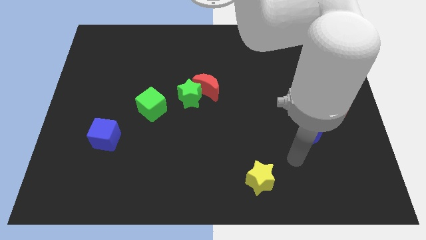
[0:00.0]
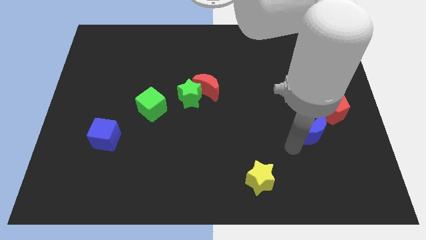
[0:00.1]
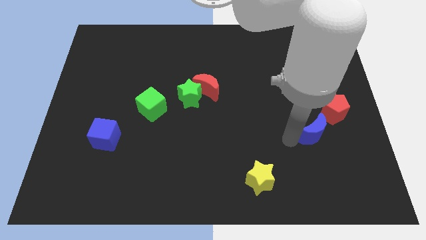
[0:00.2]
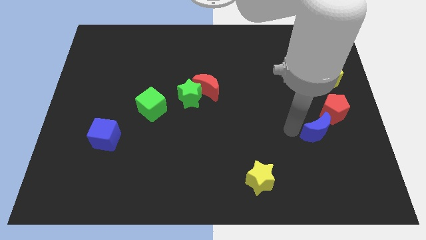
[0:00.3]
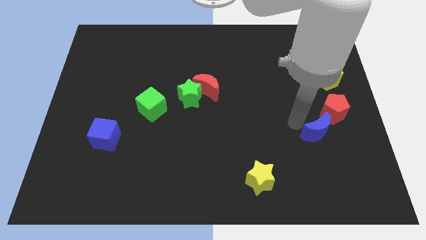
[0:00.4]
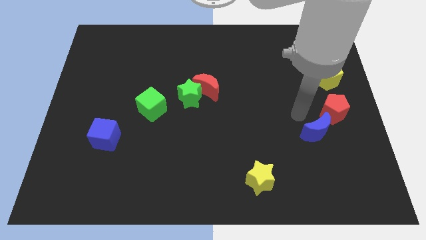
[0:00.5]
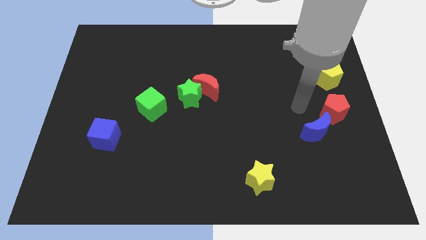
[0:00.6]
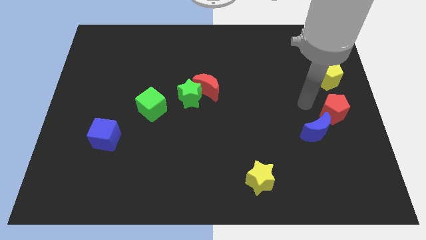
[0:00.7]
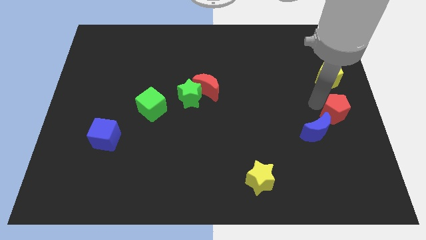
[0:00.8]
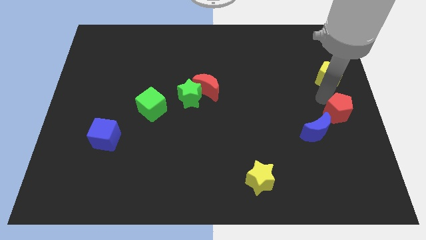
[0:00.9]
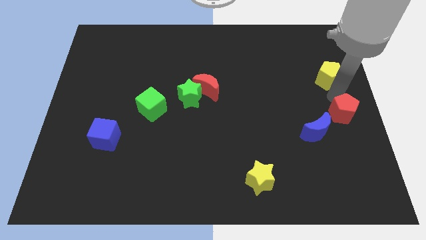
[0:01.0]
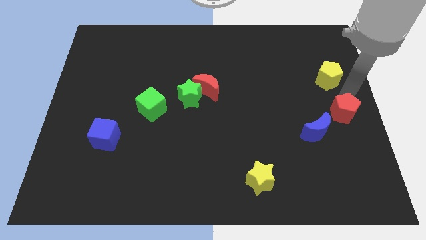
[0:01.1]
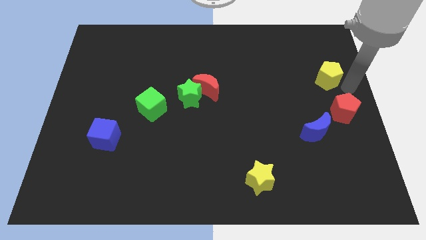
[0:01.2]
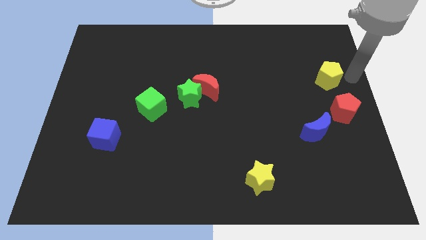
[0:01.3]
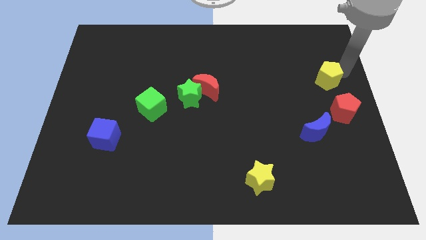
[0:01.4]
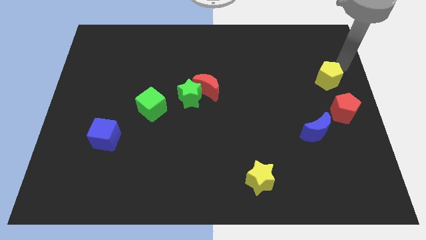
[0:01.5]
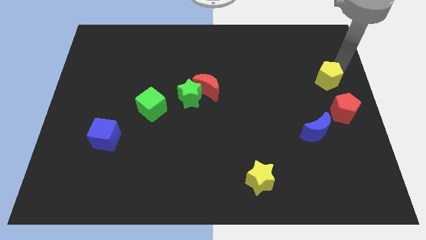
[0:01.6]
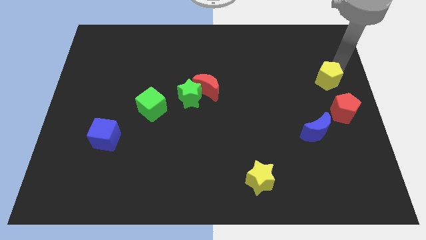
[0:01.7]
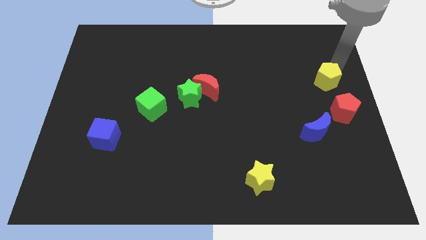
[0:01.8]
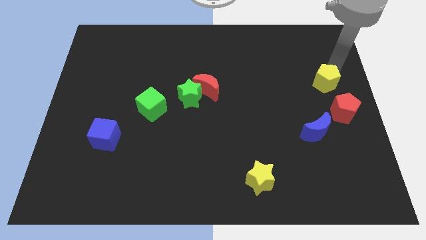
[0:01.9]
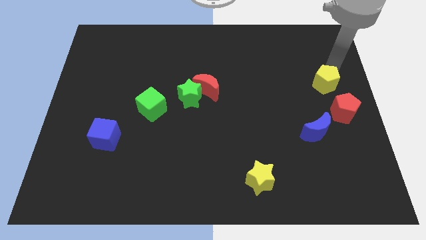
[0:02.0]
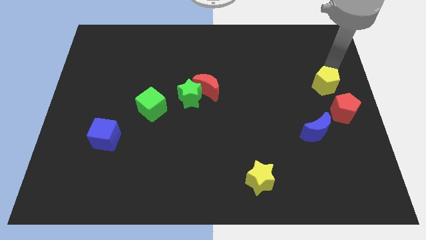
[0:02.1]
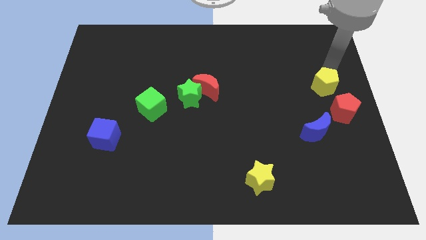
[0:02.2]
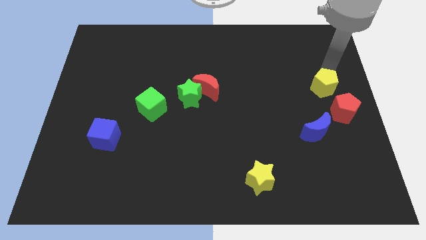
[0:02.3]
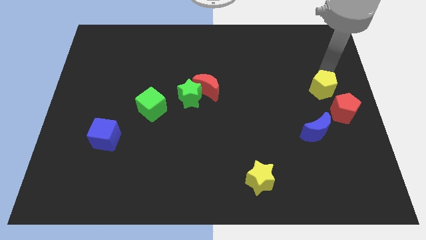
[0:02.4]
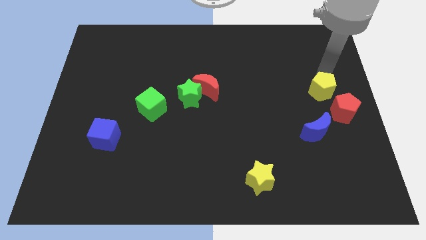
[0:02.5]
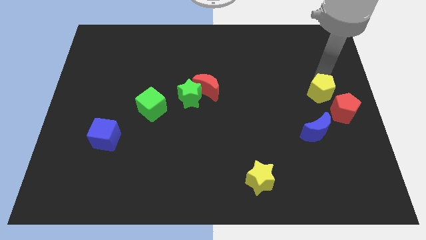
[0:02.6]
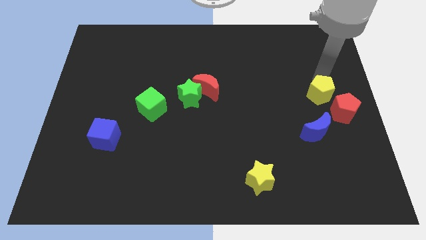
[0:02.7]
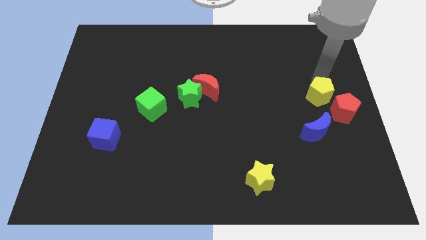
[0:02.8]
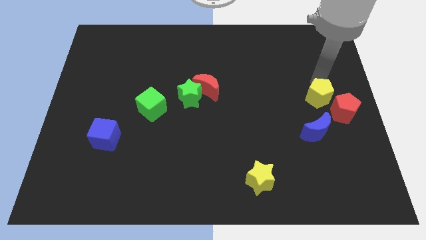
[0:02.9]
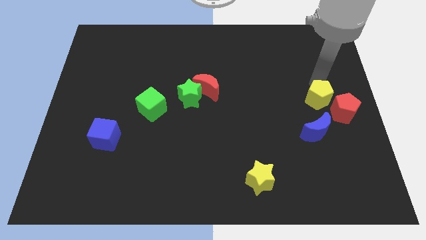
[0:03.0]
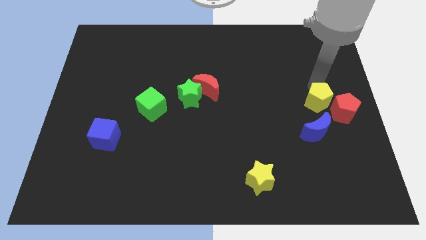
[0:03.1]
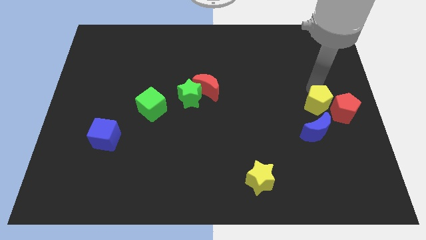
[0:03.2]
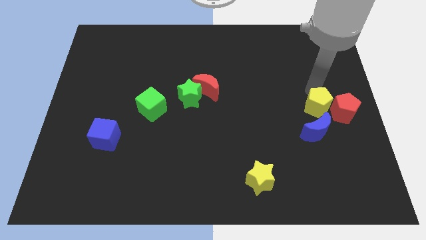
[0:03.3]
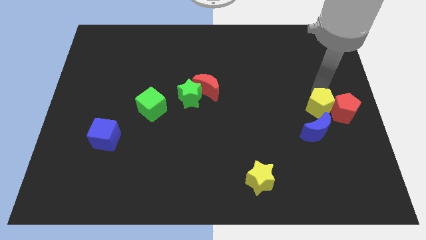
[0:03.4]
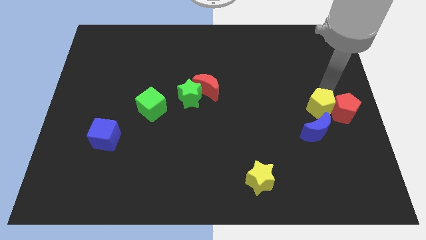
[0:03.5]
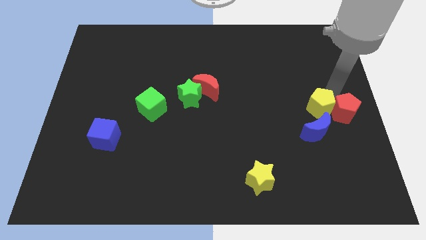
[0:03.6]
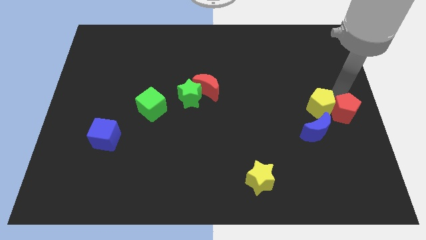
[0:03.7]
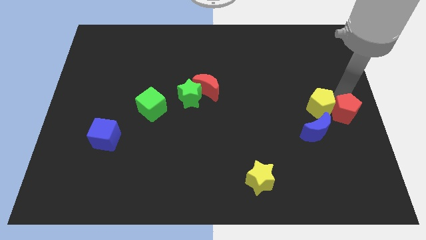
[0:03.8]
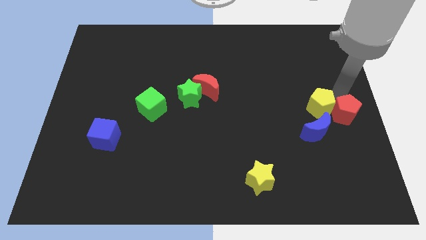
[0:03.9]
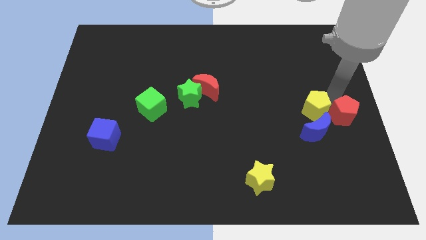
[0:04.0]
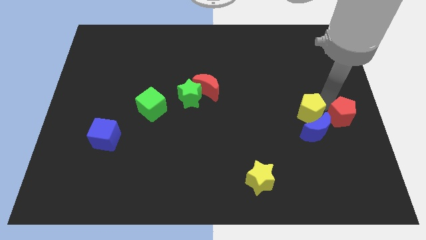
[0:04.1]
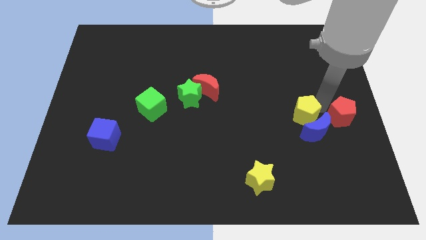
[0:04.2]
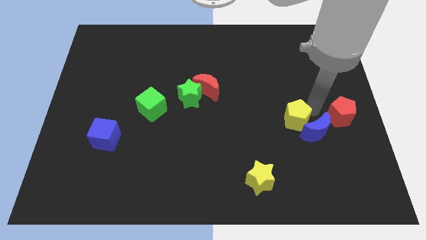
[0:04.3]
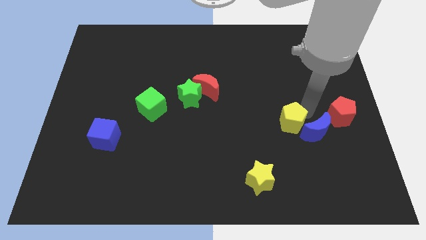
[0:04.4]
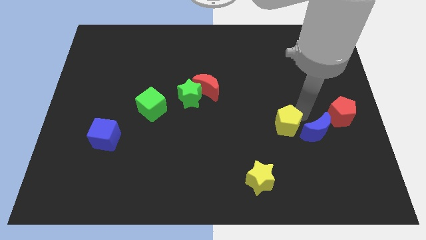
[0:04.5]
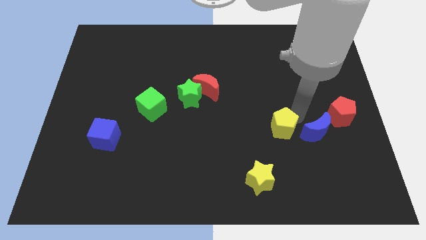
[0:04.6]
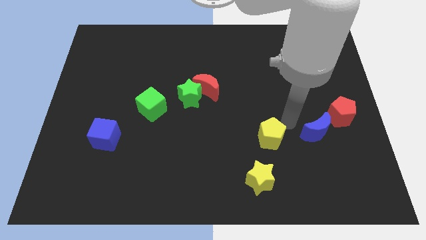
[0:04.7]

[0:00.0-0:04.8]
push the yellow pentagon down and left

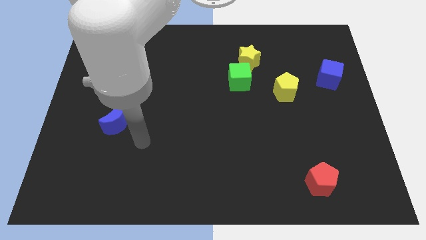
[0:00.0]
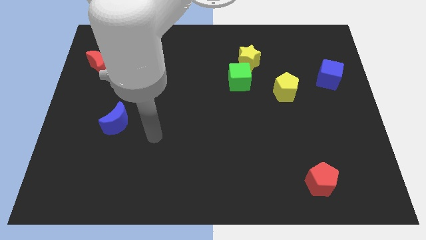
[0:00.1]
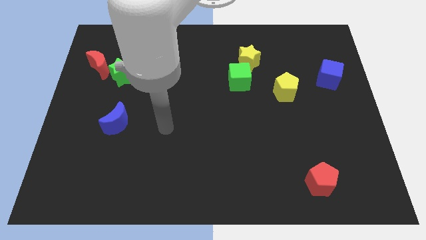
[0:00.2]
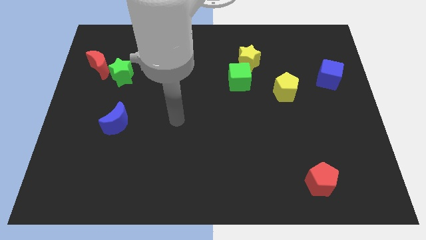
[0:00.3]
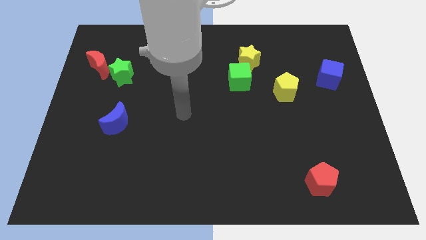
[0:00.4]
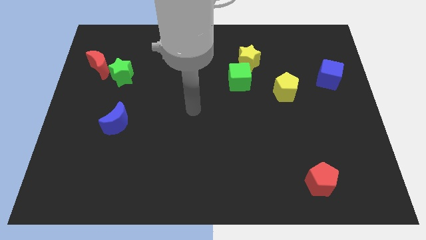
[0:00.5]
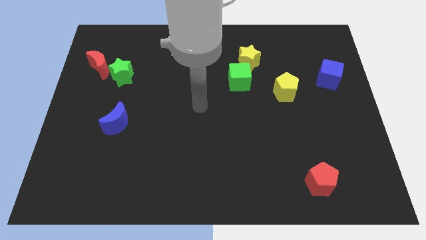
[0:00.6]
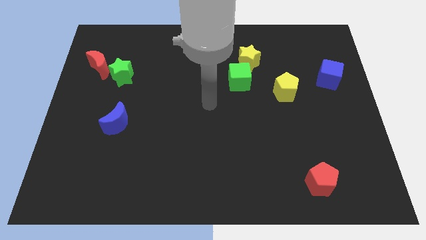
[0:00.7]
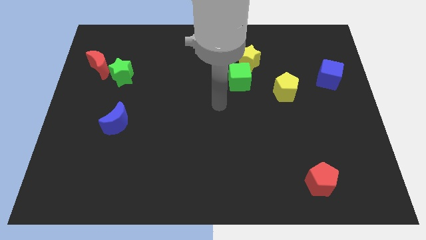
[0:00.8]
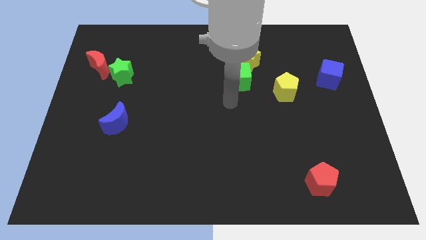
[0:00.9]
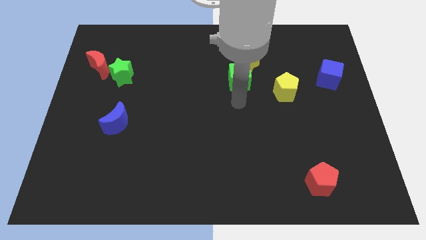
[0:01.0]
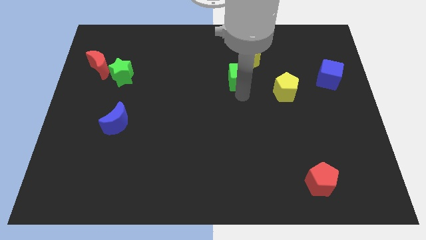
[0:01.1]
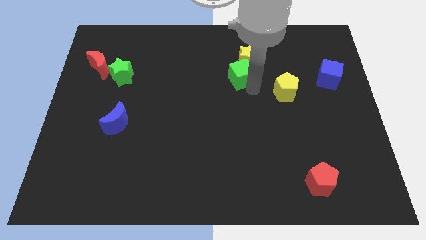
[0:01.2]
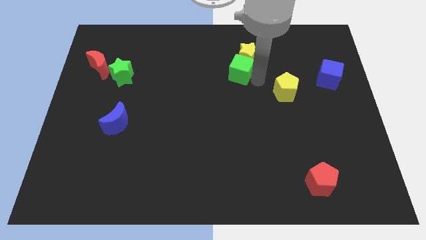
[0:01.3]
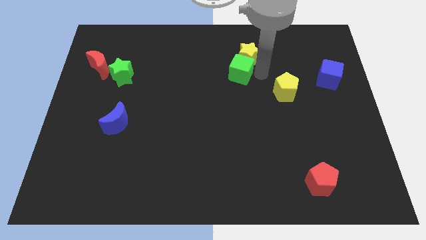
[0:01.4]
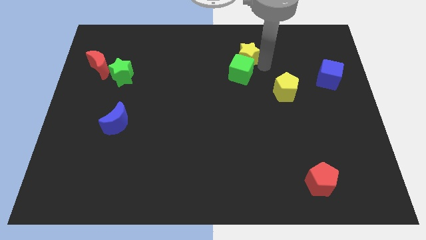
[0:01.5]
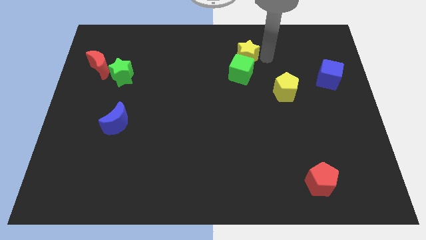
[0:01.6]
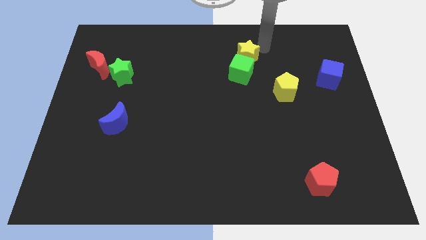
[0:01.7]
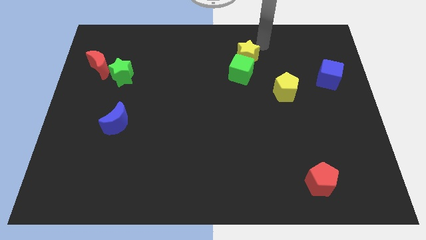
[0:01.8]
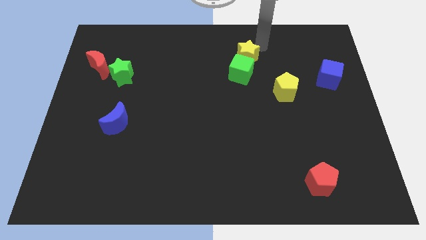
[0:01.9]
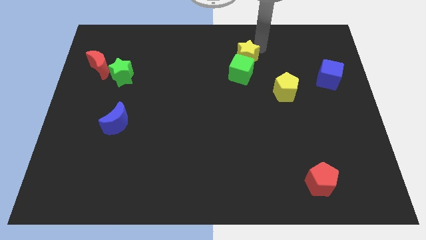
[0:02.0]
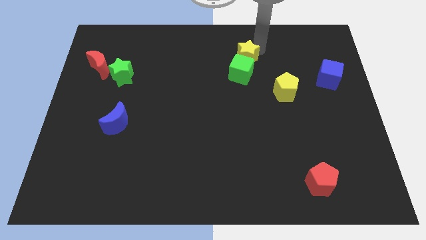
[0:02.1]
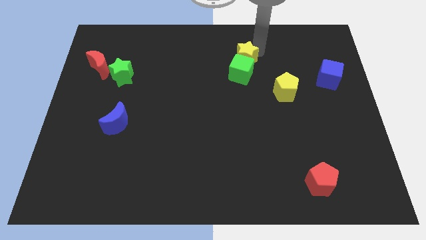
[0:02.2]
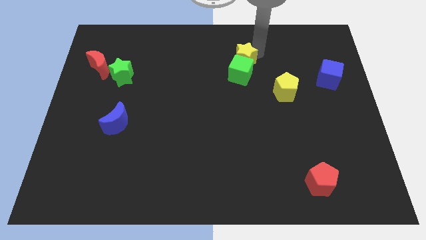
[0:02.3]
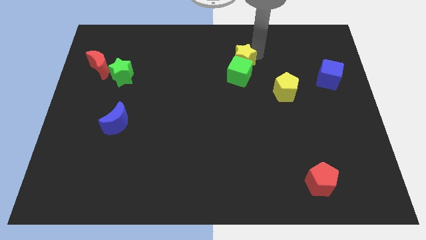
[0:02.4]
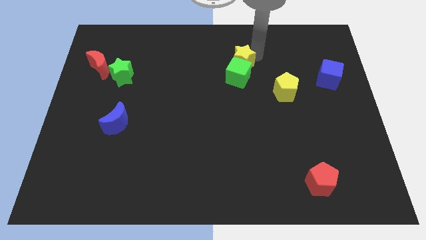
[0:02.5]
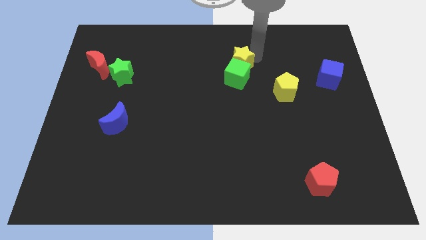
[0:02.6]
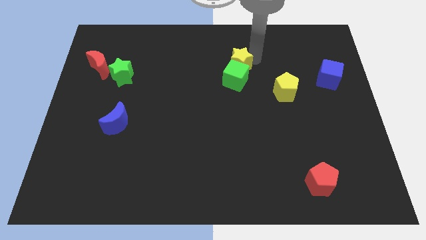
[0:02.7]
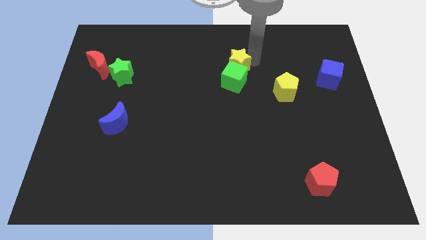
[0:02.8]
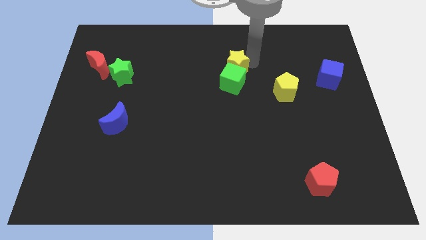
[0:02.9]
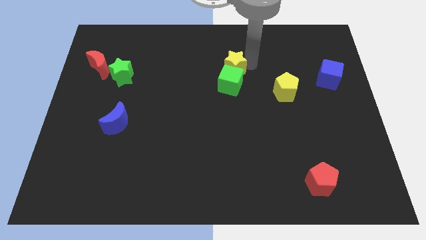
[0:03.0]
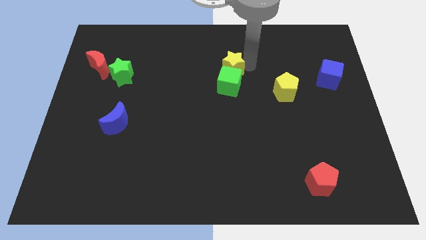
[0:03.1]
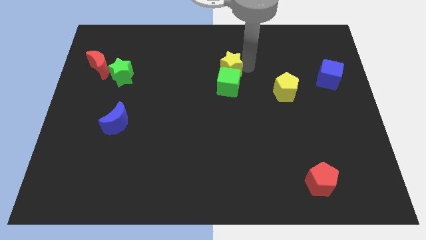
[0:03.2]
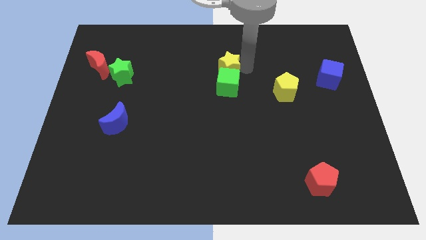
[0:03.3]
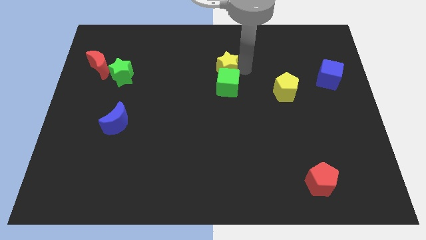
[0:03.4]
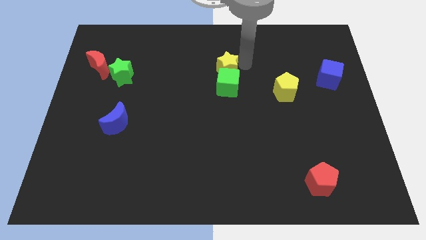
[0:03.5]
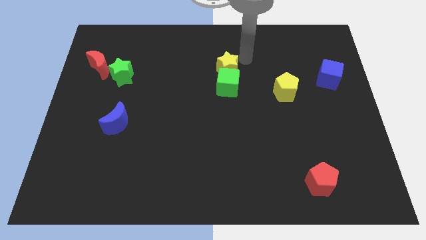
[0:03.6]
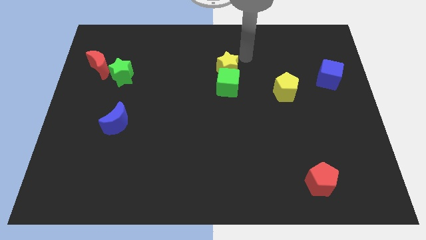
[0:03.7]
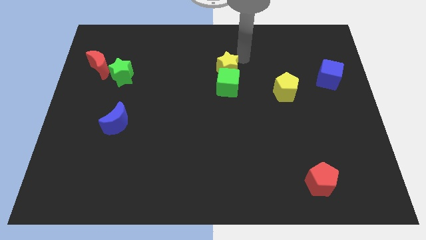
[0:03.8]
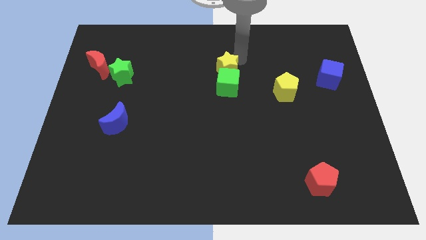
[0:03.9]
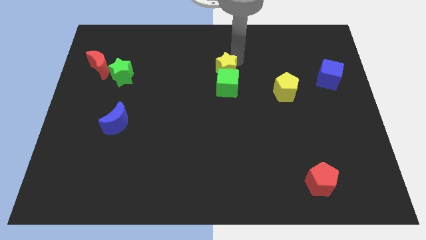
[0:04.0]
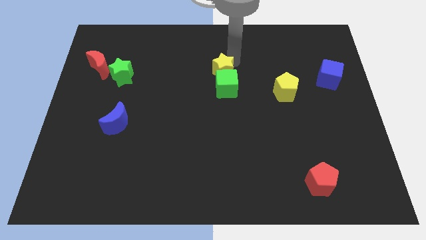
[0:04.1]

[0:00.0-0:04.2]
move the yellow star a little bit diagonally downwards and left
